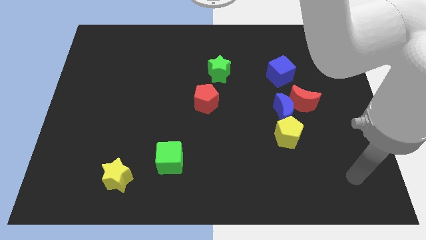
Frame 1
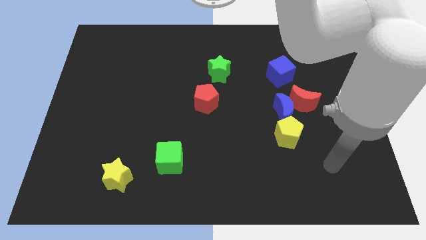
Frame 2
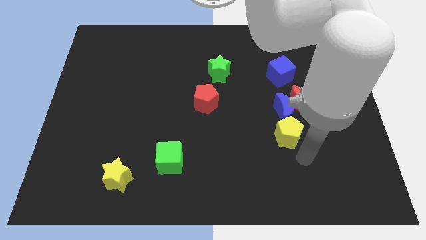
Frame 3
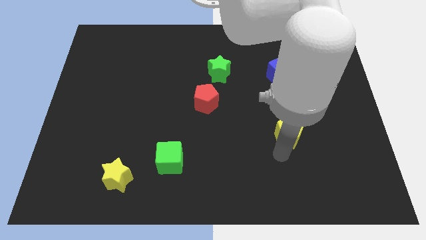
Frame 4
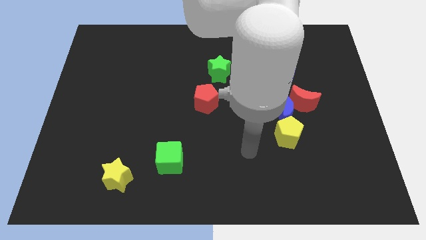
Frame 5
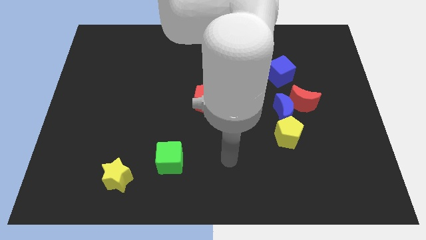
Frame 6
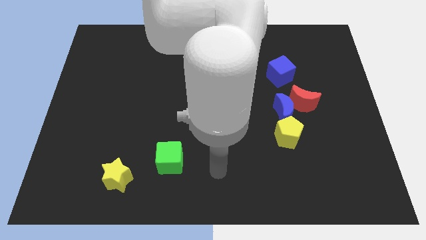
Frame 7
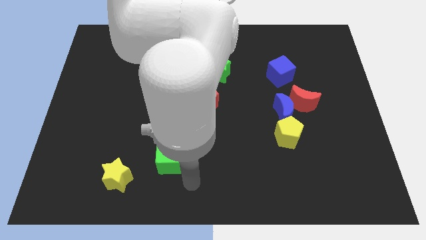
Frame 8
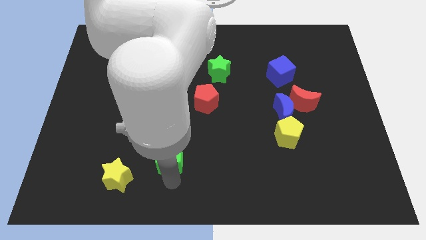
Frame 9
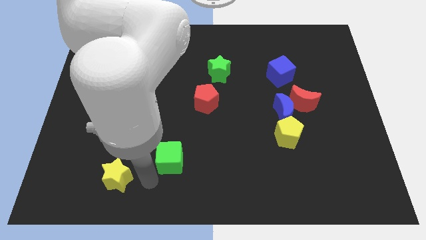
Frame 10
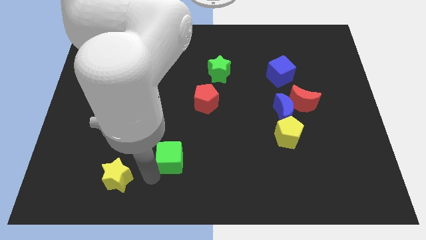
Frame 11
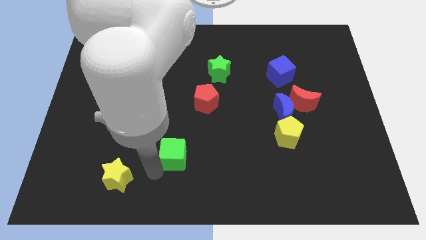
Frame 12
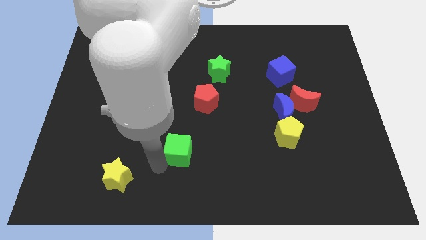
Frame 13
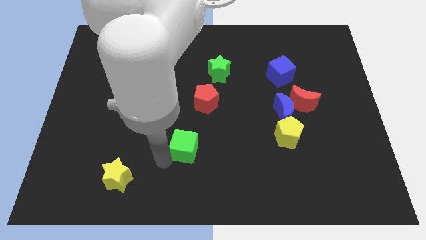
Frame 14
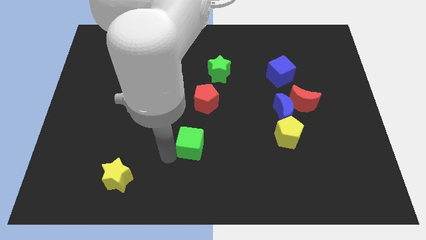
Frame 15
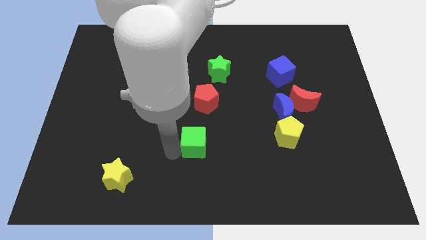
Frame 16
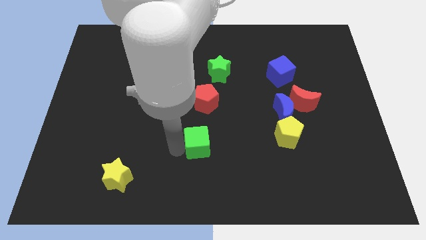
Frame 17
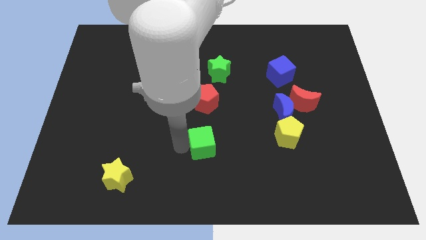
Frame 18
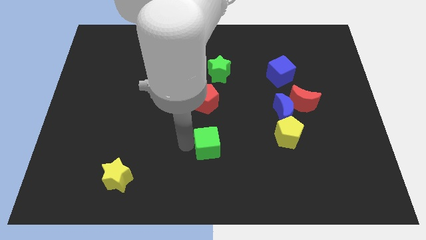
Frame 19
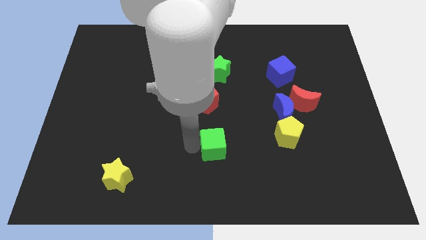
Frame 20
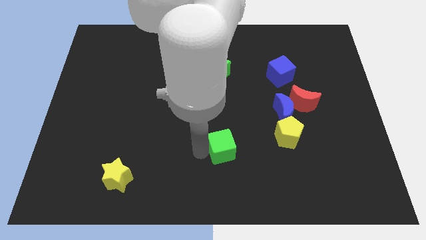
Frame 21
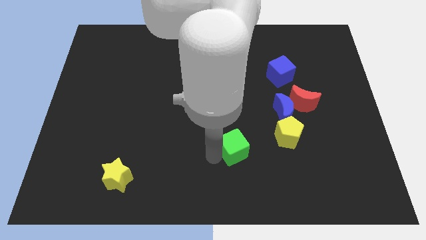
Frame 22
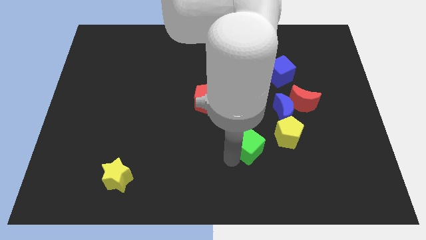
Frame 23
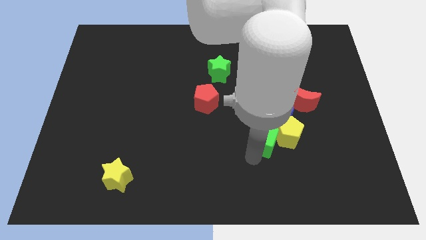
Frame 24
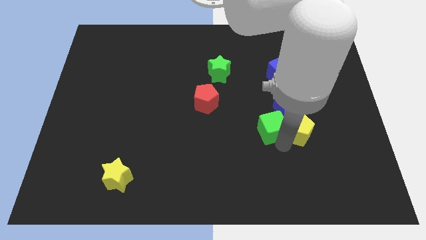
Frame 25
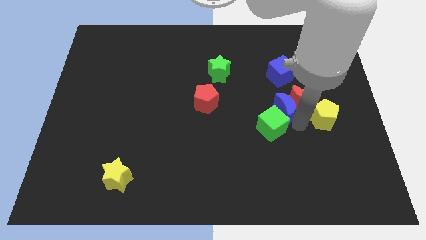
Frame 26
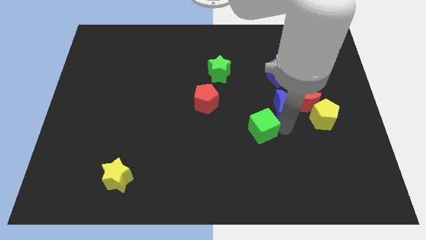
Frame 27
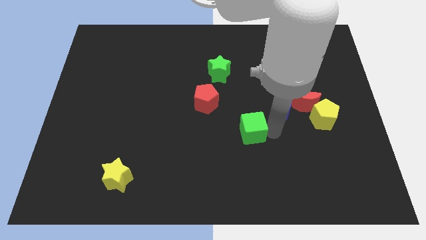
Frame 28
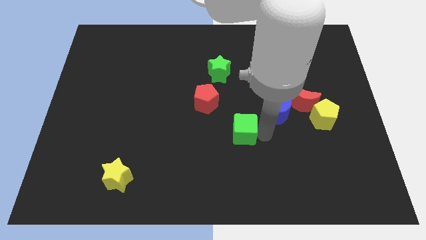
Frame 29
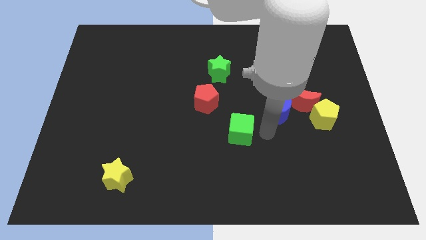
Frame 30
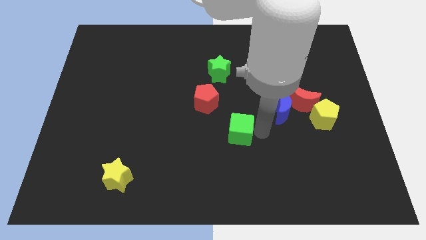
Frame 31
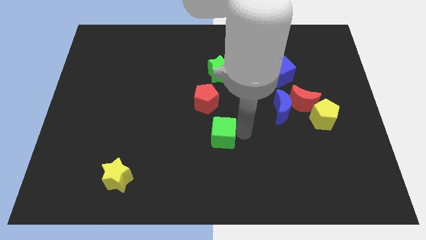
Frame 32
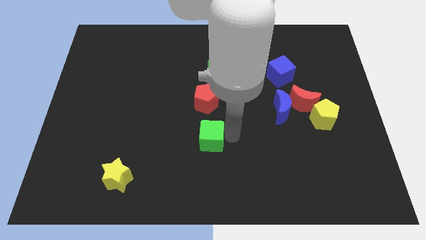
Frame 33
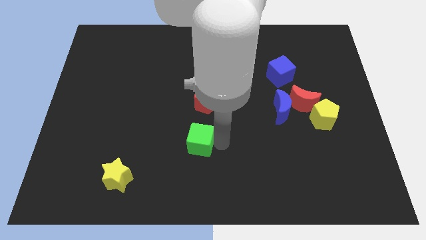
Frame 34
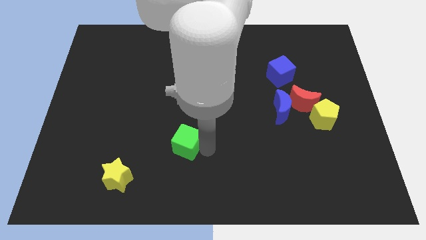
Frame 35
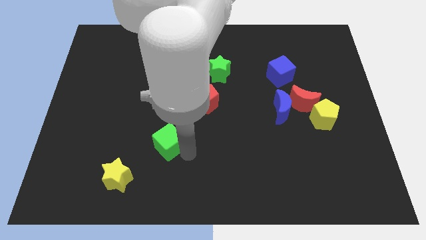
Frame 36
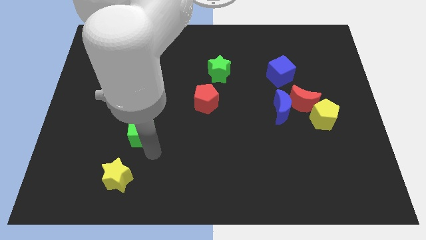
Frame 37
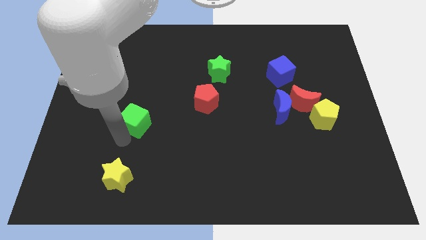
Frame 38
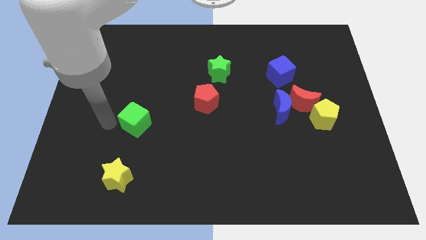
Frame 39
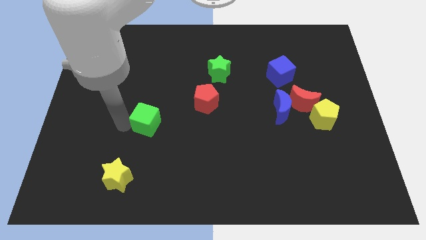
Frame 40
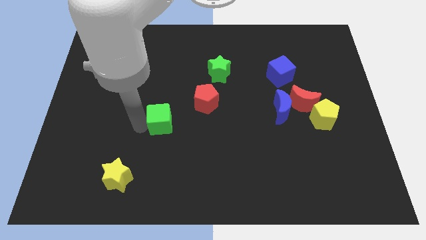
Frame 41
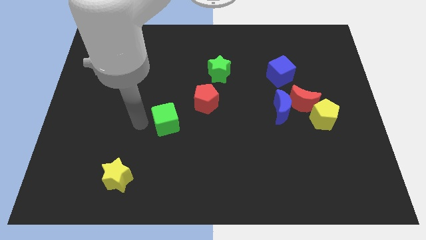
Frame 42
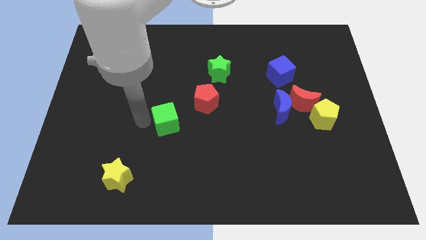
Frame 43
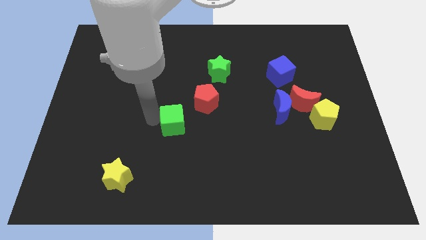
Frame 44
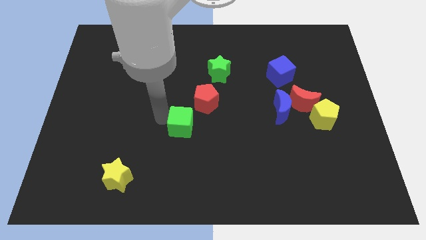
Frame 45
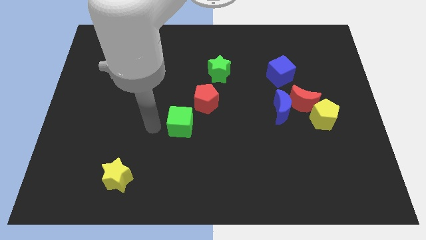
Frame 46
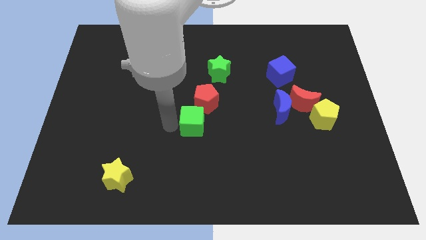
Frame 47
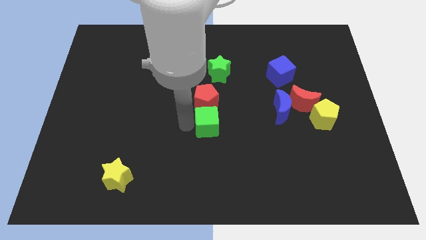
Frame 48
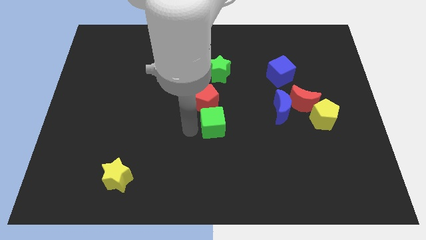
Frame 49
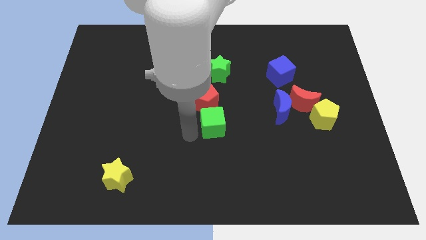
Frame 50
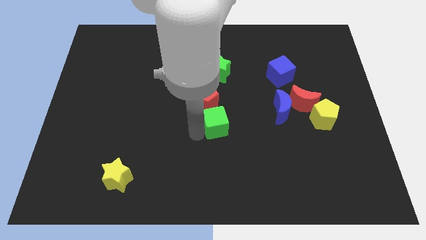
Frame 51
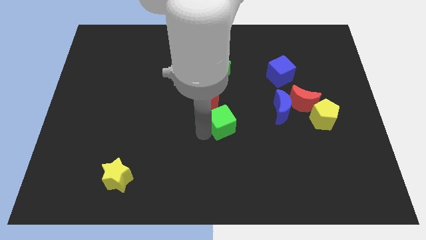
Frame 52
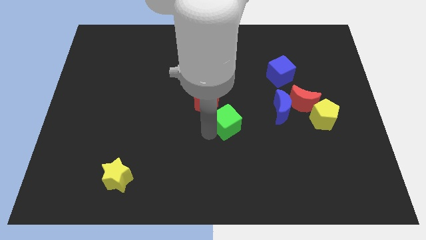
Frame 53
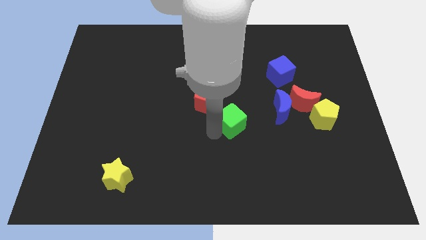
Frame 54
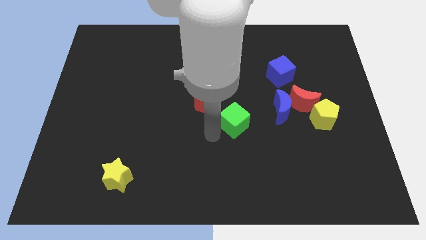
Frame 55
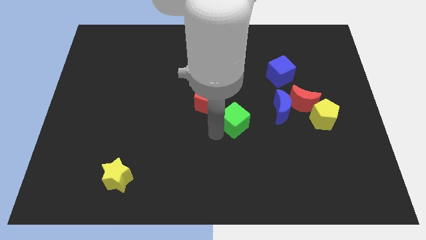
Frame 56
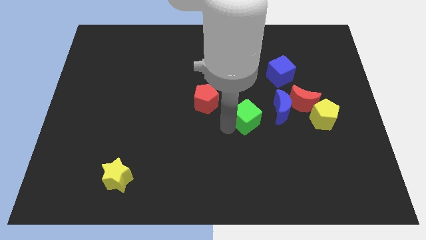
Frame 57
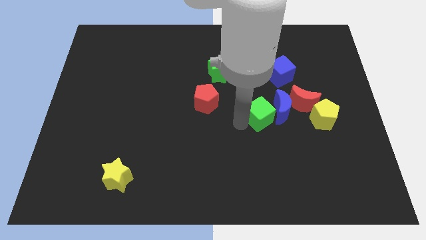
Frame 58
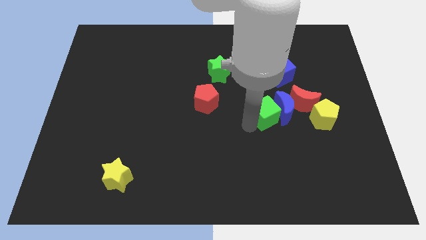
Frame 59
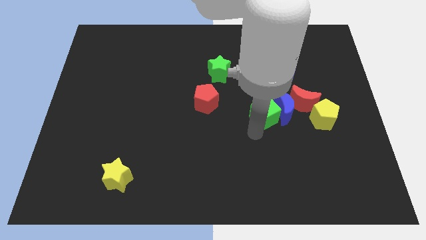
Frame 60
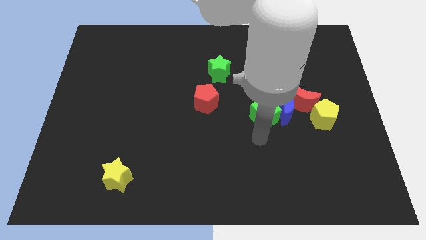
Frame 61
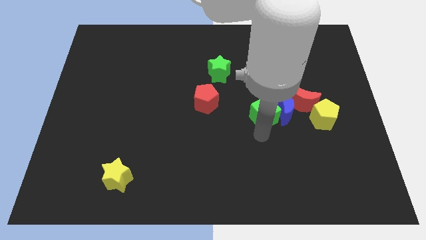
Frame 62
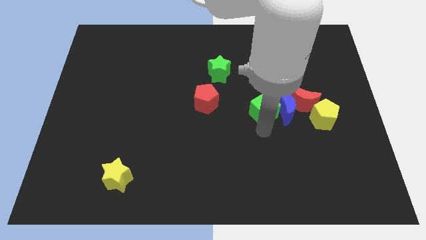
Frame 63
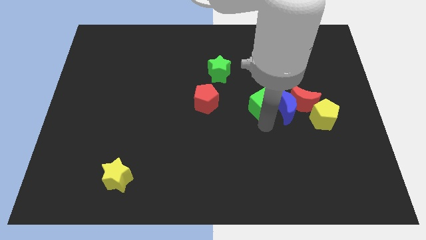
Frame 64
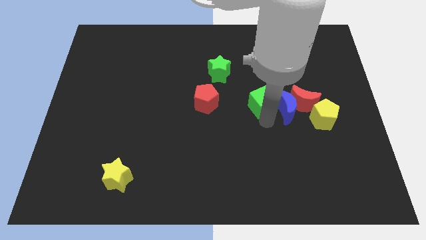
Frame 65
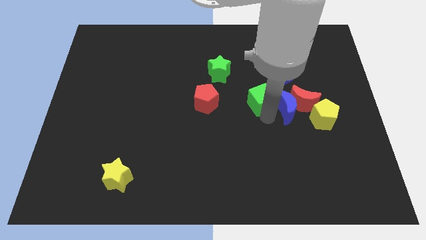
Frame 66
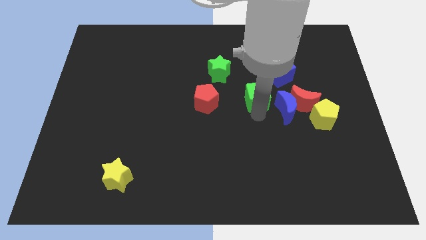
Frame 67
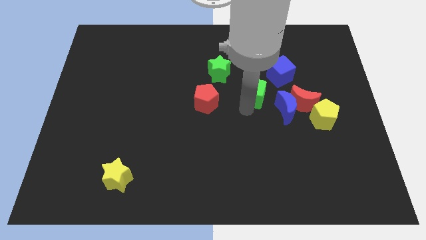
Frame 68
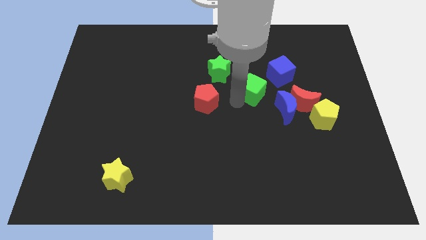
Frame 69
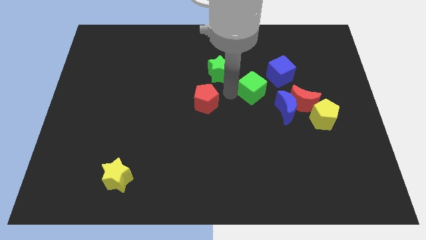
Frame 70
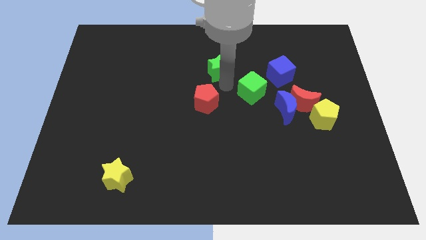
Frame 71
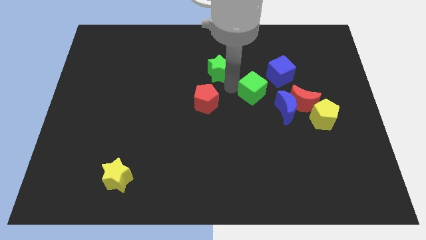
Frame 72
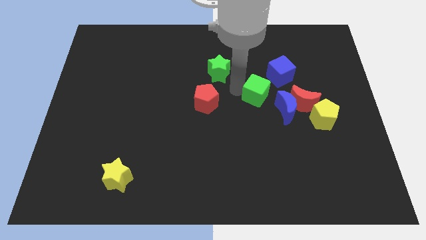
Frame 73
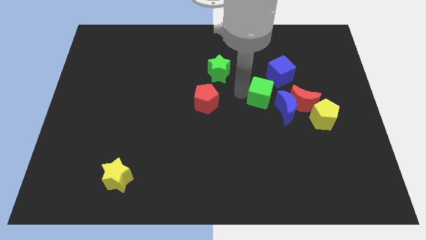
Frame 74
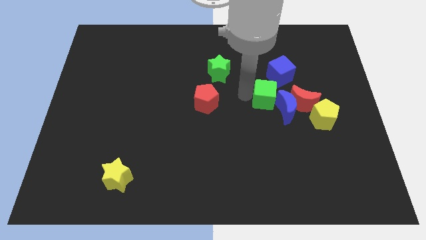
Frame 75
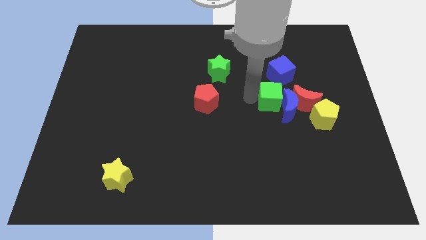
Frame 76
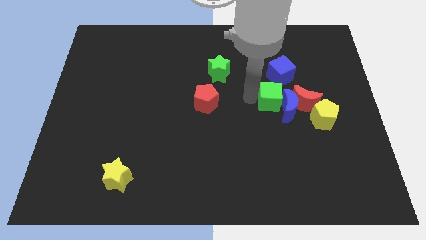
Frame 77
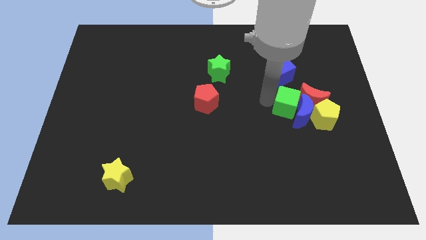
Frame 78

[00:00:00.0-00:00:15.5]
push the green cube close to the red moon
